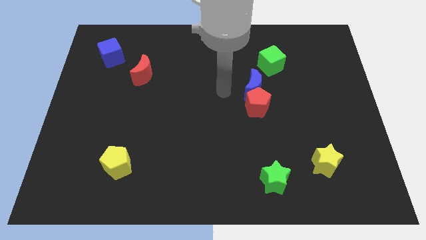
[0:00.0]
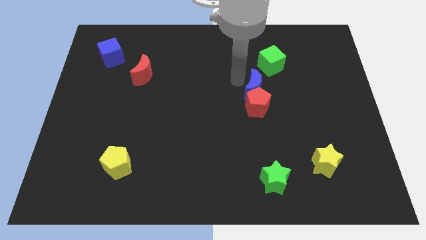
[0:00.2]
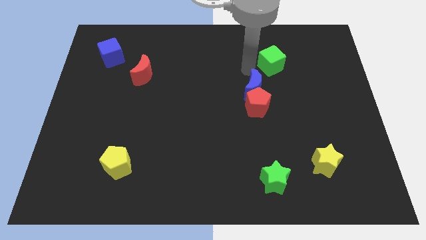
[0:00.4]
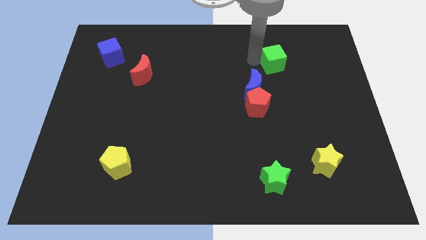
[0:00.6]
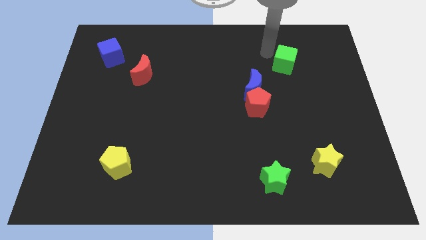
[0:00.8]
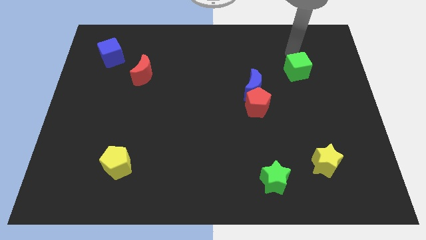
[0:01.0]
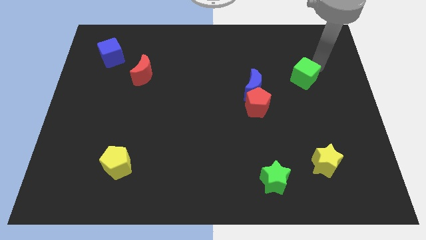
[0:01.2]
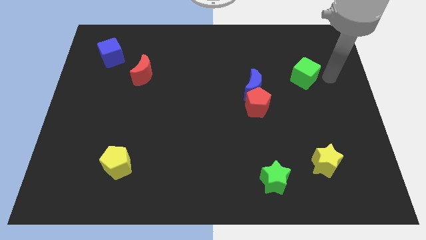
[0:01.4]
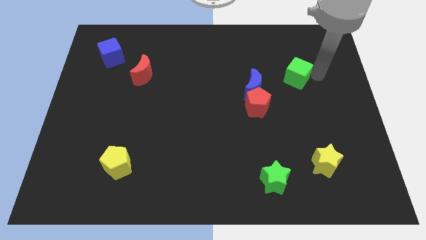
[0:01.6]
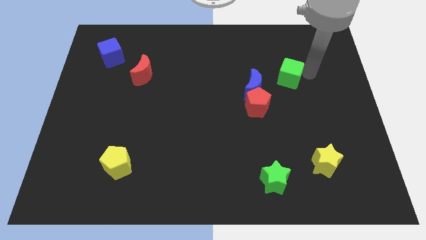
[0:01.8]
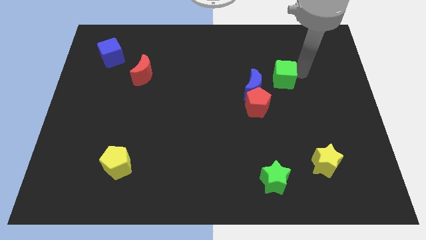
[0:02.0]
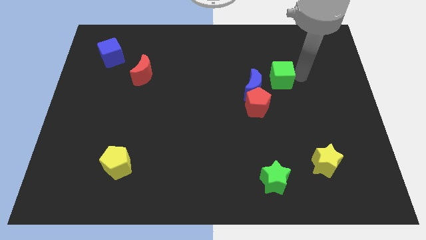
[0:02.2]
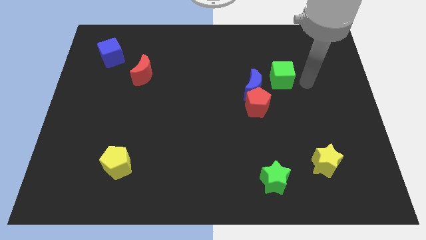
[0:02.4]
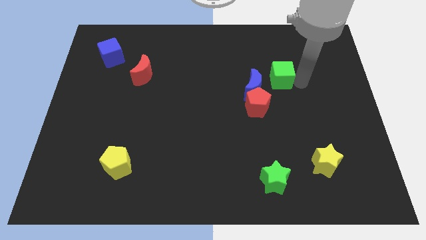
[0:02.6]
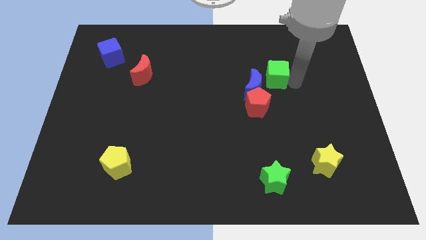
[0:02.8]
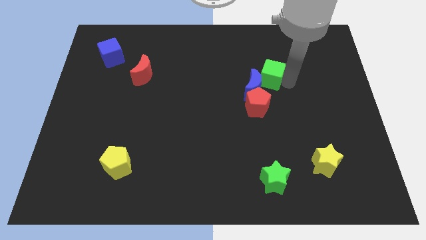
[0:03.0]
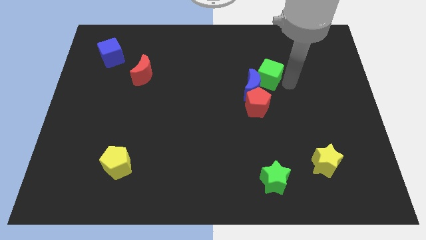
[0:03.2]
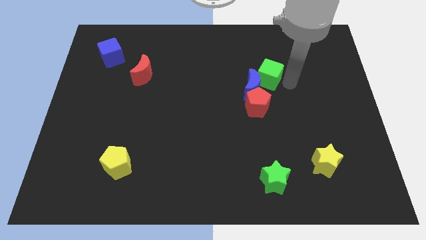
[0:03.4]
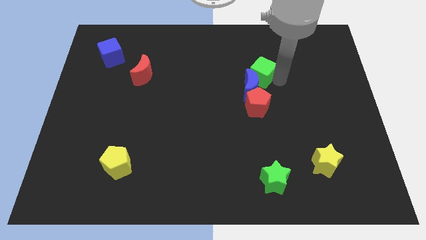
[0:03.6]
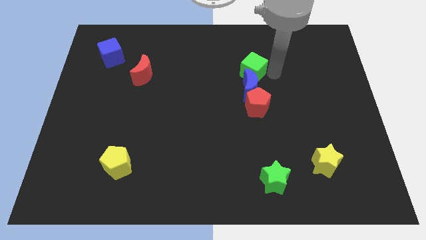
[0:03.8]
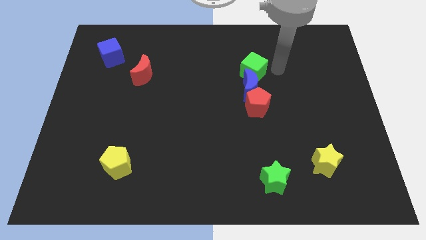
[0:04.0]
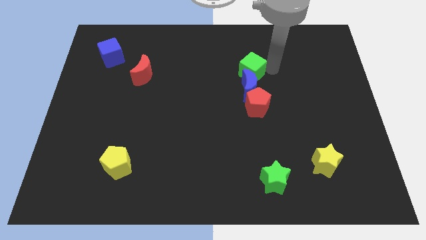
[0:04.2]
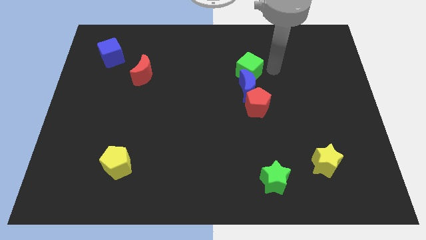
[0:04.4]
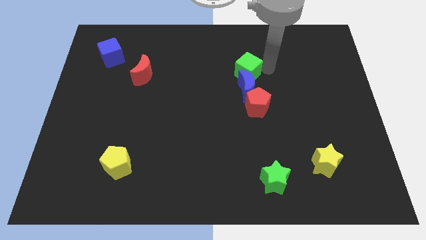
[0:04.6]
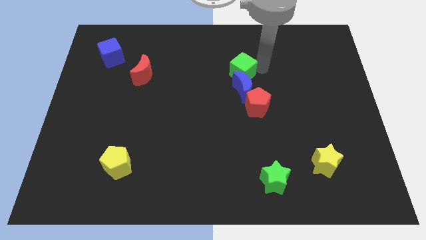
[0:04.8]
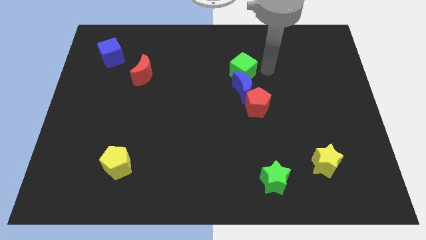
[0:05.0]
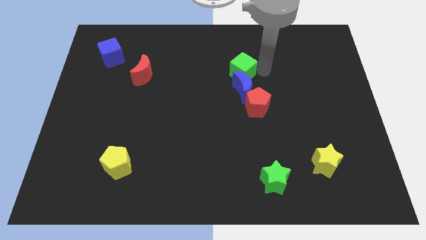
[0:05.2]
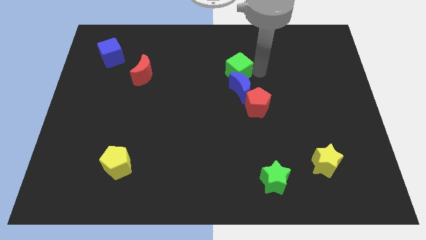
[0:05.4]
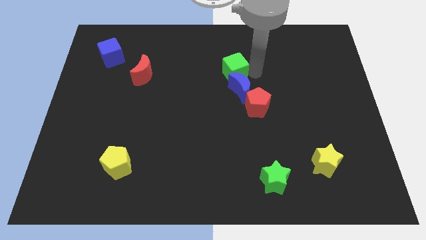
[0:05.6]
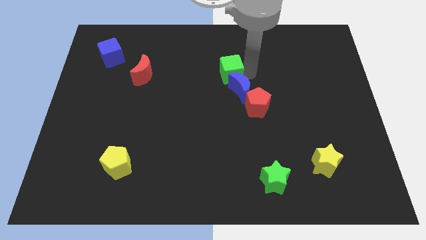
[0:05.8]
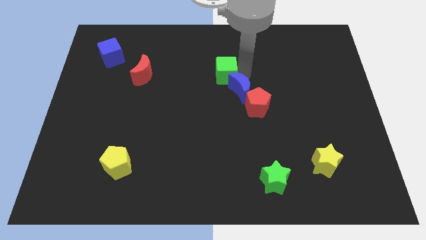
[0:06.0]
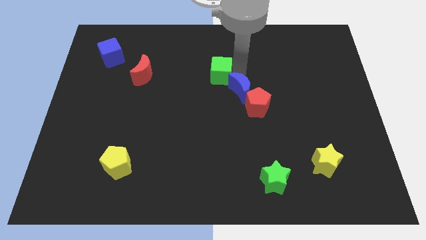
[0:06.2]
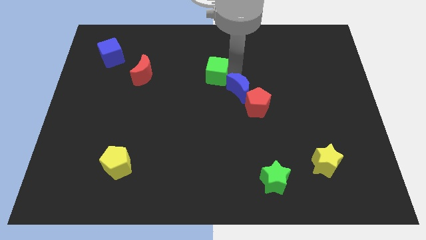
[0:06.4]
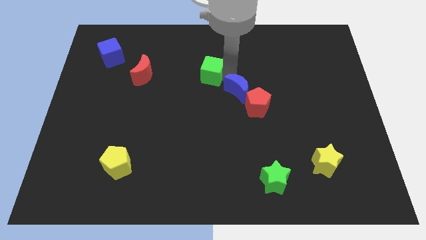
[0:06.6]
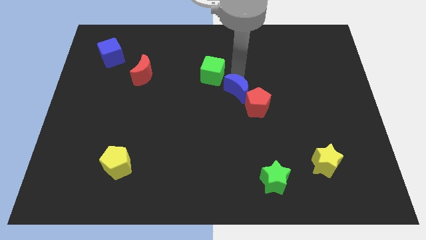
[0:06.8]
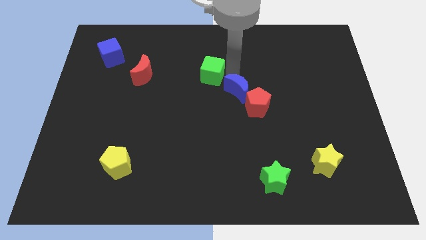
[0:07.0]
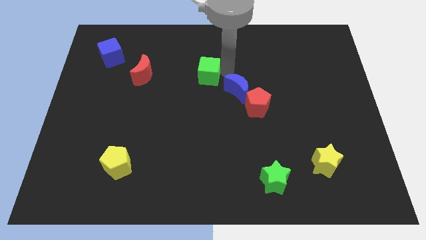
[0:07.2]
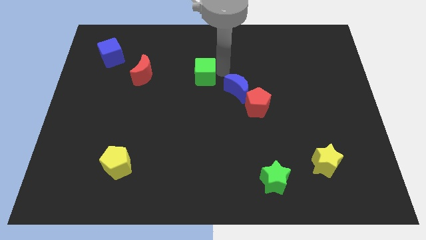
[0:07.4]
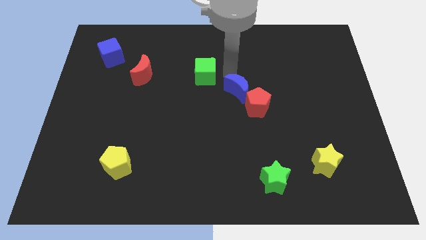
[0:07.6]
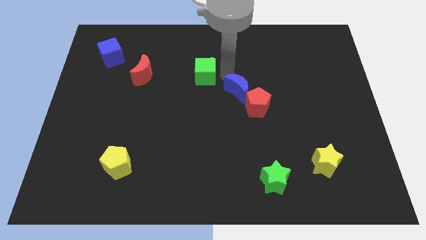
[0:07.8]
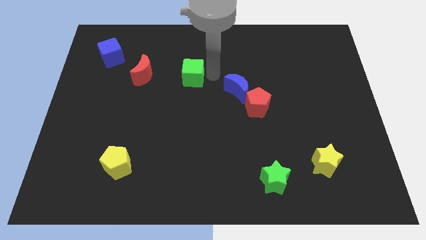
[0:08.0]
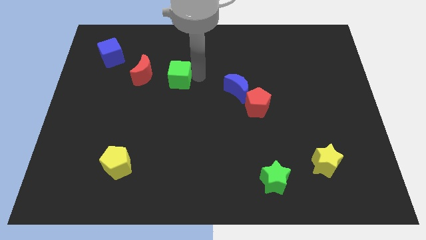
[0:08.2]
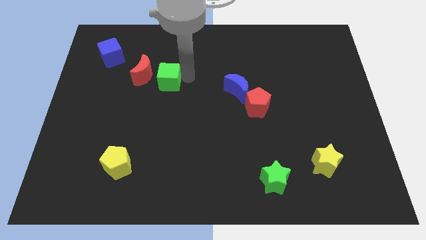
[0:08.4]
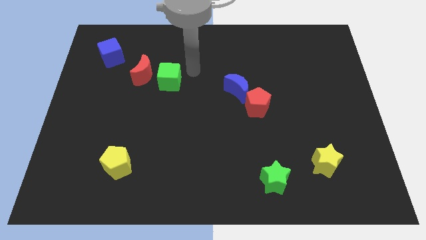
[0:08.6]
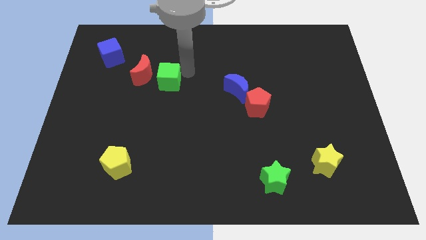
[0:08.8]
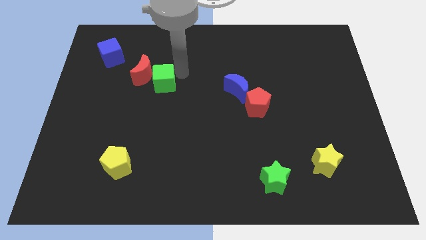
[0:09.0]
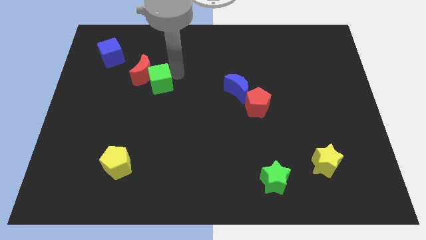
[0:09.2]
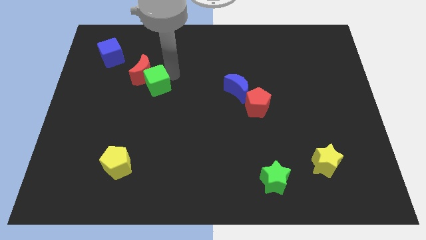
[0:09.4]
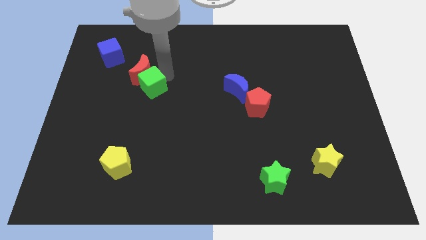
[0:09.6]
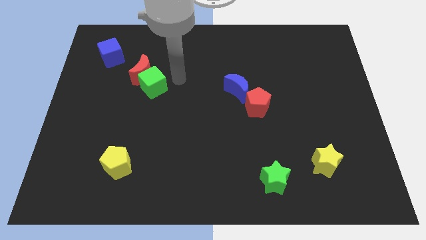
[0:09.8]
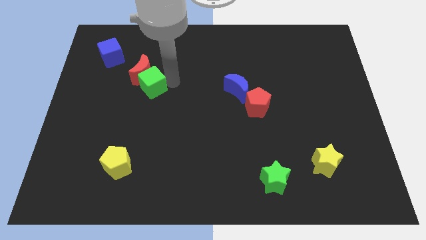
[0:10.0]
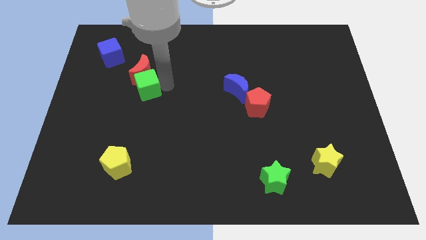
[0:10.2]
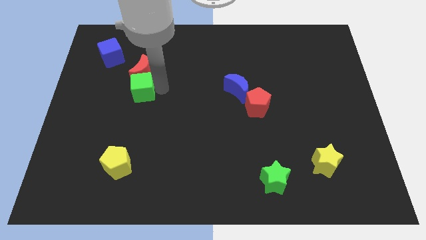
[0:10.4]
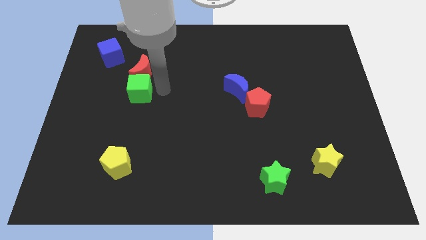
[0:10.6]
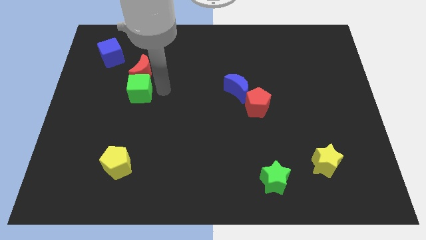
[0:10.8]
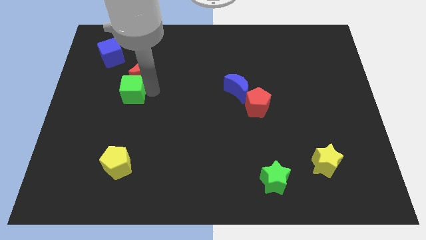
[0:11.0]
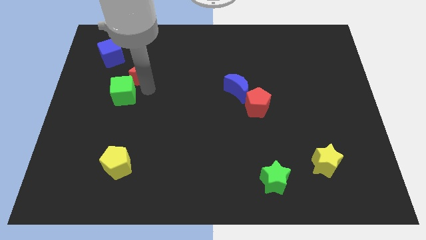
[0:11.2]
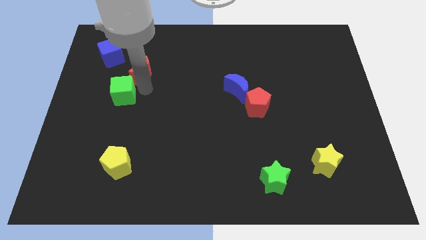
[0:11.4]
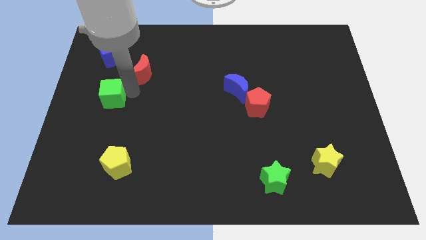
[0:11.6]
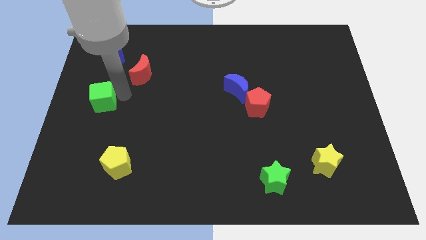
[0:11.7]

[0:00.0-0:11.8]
slide the green cube to the left side

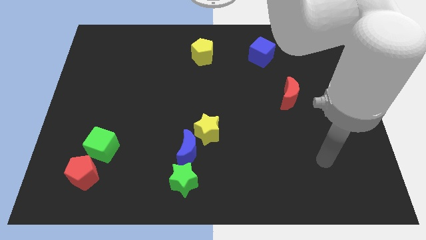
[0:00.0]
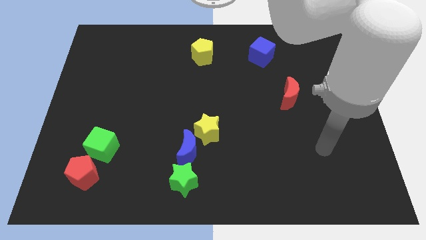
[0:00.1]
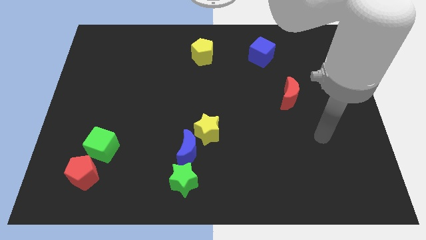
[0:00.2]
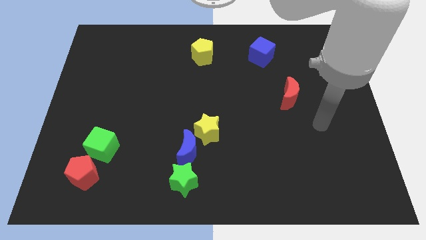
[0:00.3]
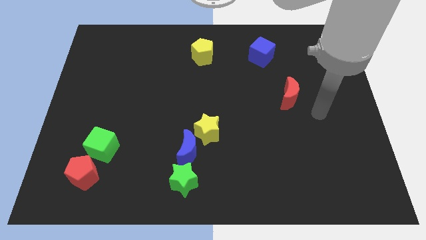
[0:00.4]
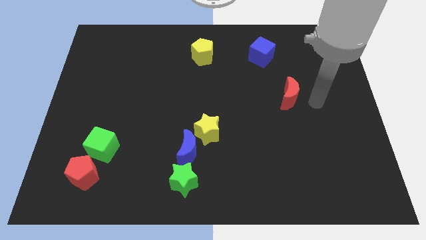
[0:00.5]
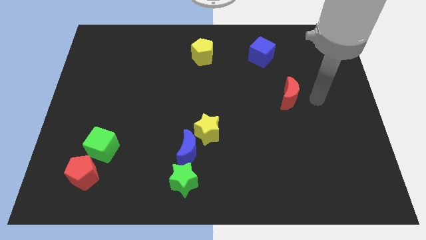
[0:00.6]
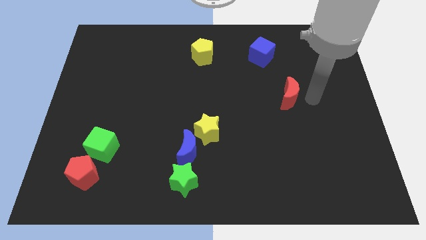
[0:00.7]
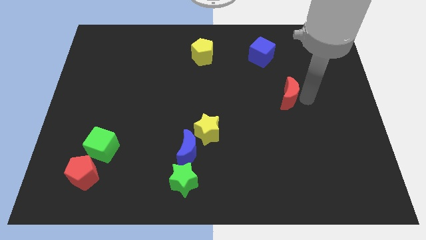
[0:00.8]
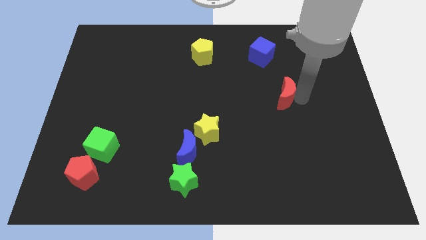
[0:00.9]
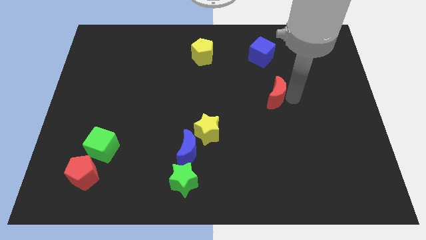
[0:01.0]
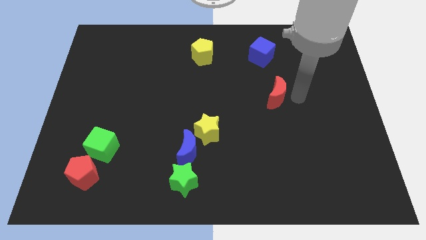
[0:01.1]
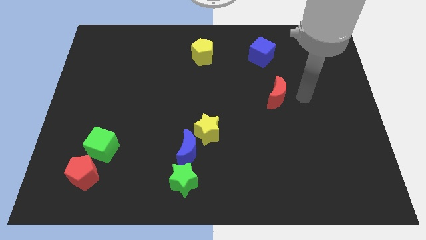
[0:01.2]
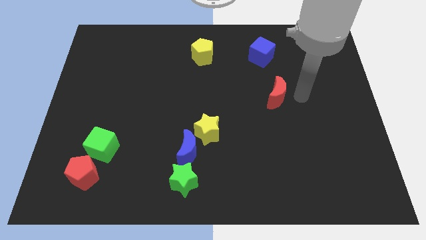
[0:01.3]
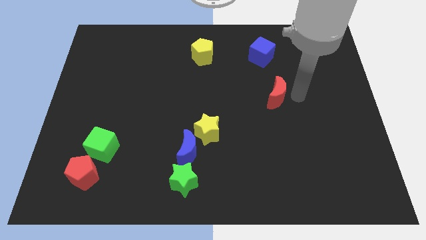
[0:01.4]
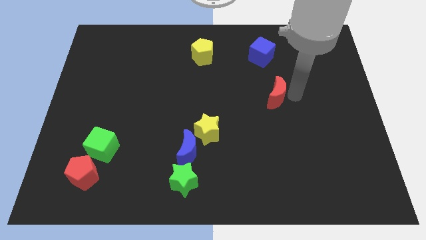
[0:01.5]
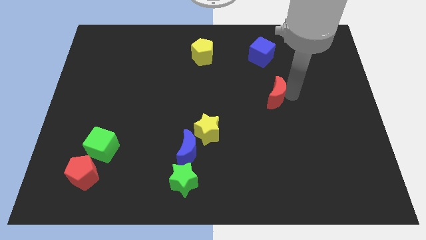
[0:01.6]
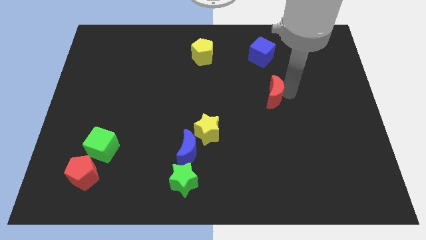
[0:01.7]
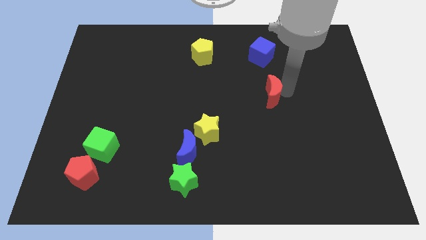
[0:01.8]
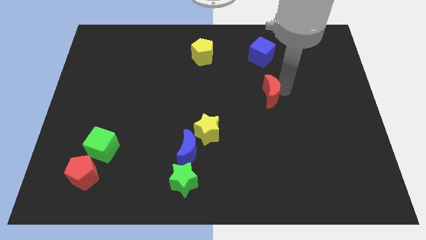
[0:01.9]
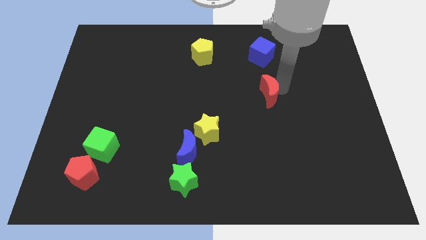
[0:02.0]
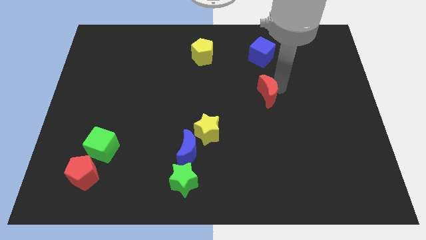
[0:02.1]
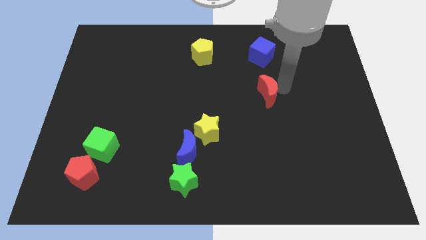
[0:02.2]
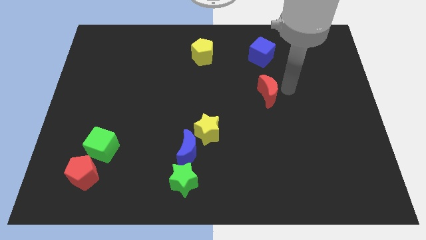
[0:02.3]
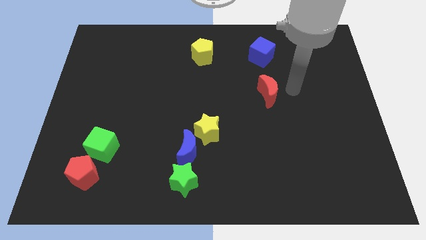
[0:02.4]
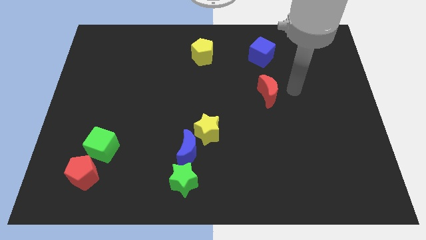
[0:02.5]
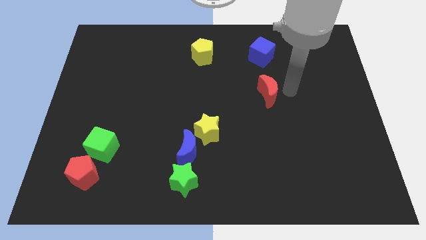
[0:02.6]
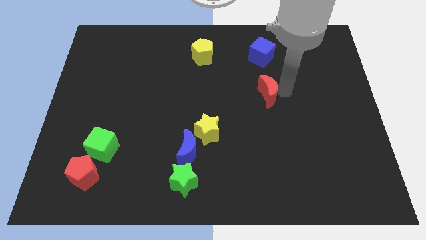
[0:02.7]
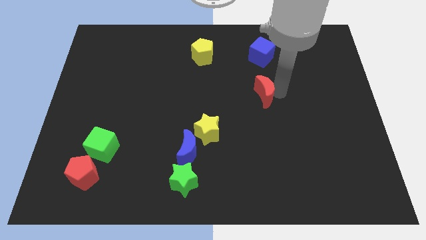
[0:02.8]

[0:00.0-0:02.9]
move the red moon to the center of the board
